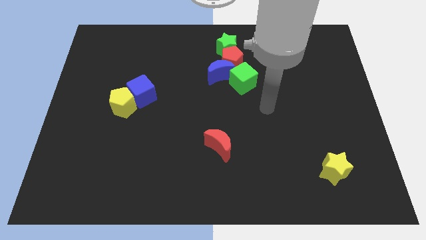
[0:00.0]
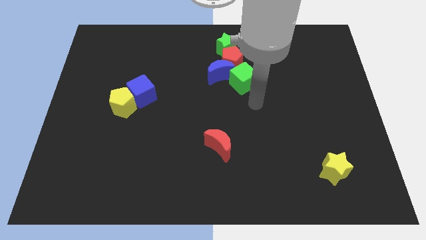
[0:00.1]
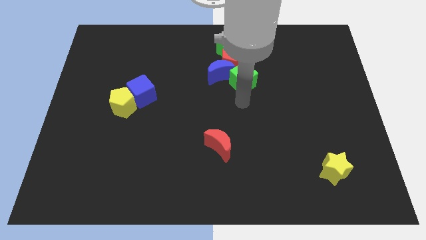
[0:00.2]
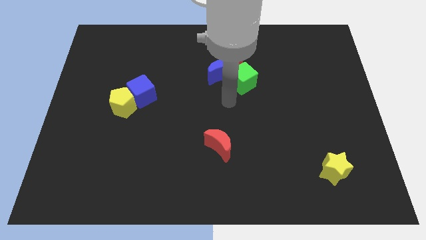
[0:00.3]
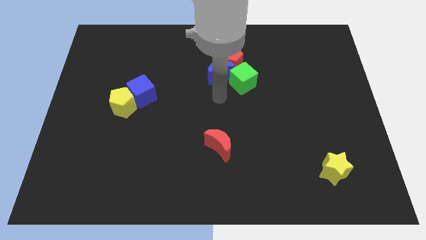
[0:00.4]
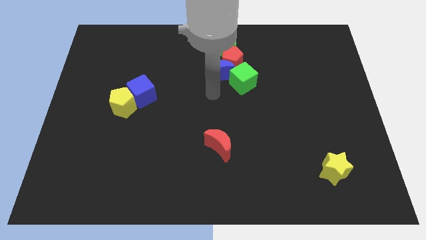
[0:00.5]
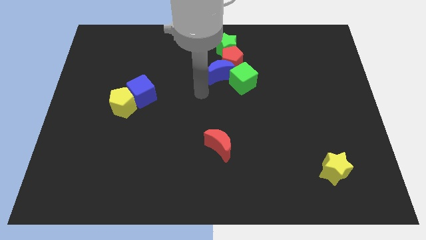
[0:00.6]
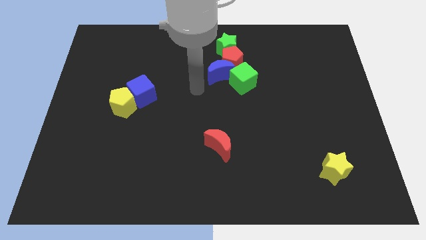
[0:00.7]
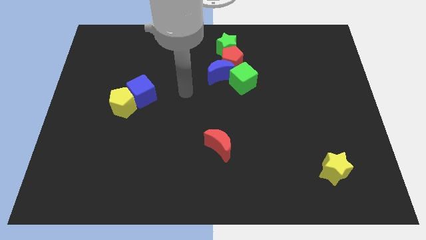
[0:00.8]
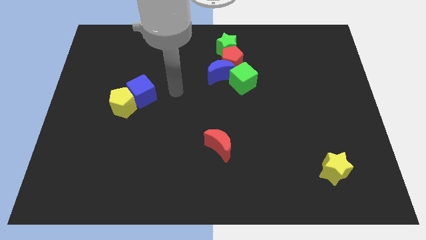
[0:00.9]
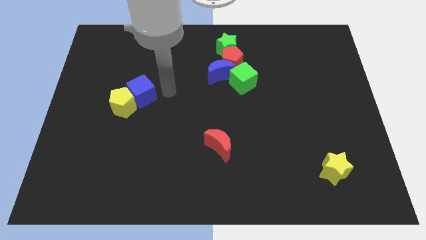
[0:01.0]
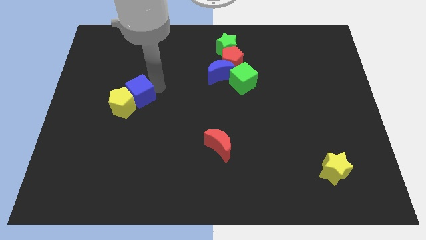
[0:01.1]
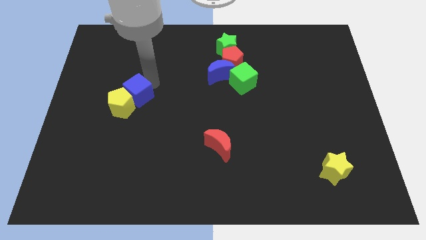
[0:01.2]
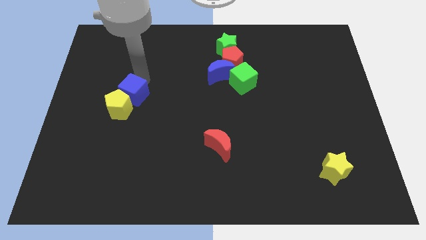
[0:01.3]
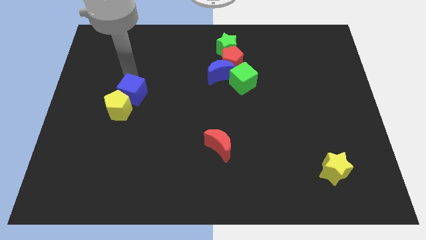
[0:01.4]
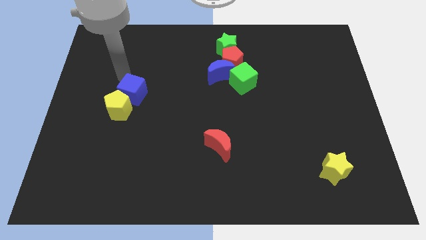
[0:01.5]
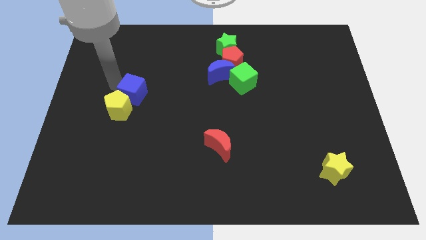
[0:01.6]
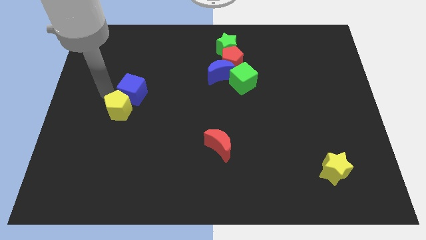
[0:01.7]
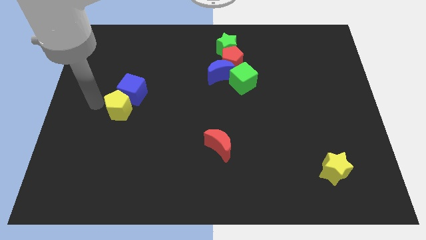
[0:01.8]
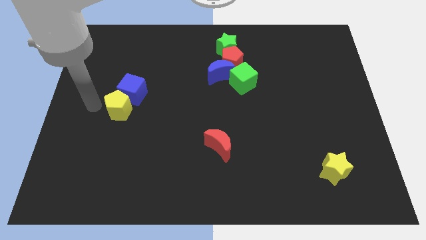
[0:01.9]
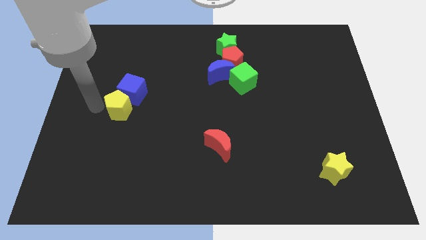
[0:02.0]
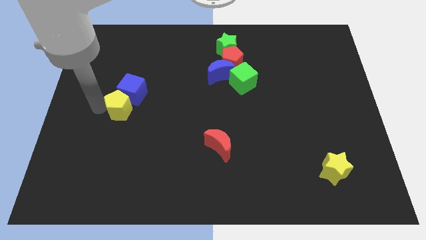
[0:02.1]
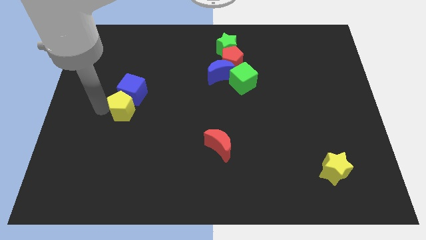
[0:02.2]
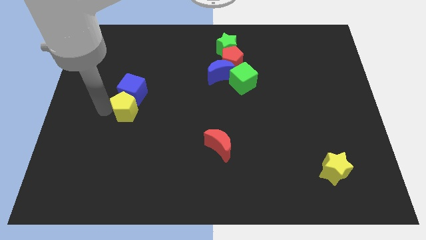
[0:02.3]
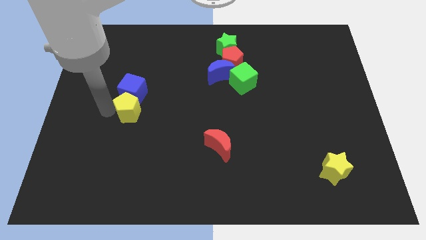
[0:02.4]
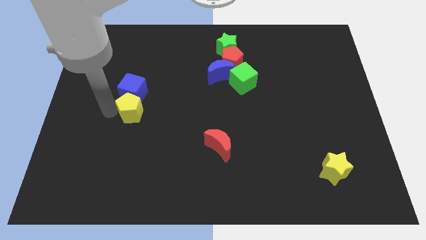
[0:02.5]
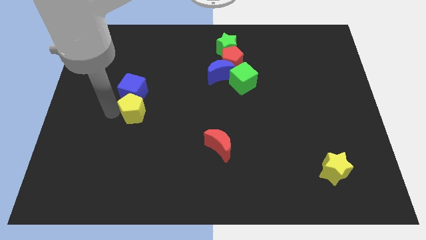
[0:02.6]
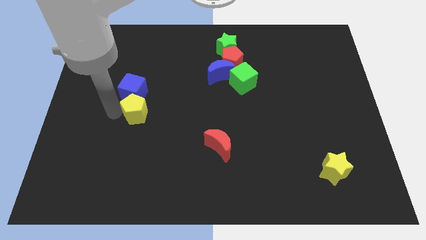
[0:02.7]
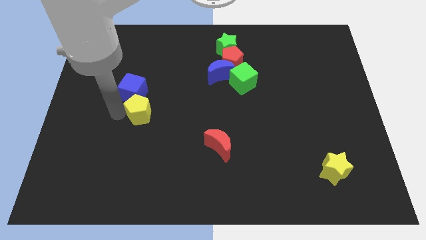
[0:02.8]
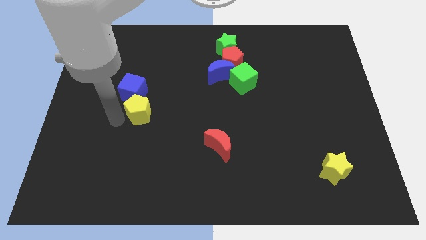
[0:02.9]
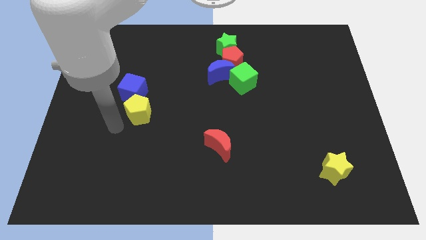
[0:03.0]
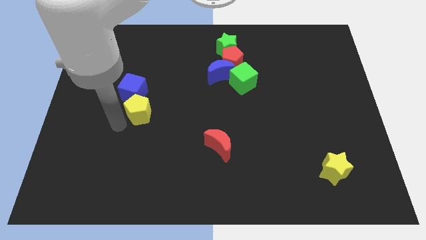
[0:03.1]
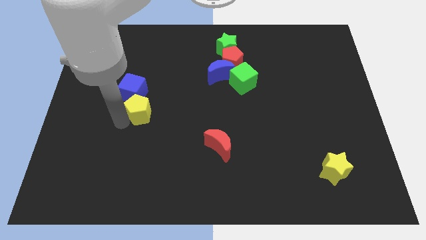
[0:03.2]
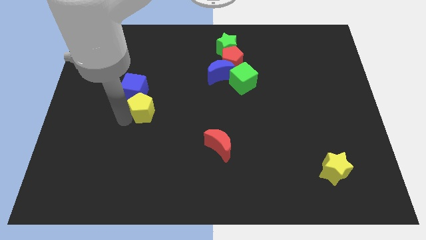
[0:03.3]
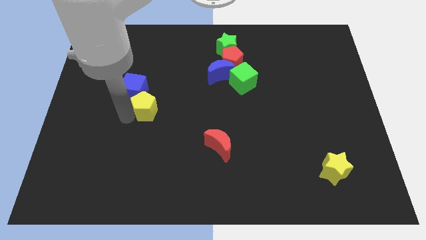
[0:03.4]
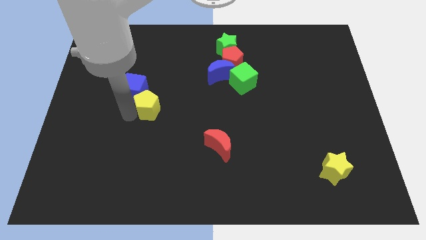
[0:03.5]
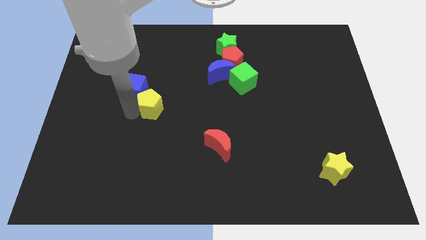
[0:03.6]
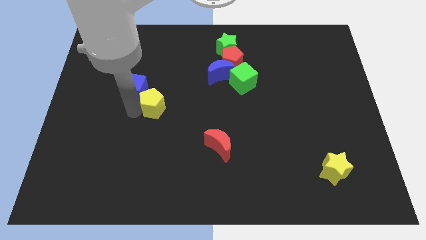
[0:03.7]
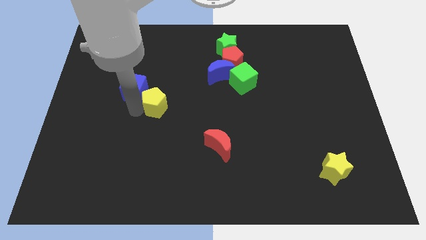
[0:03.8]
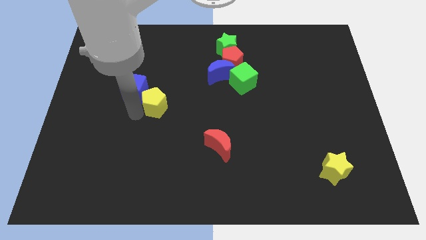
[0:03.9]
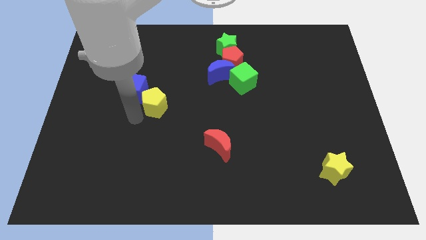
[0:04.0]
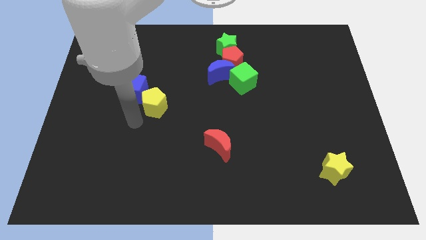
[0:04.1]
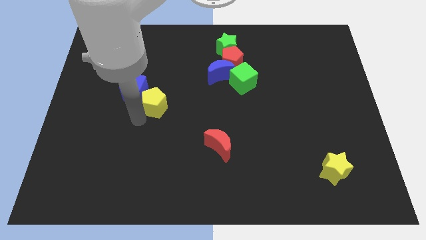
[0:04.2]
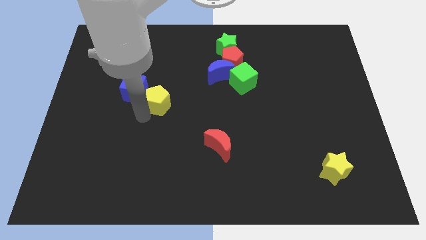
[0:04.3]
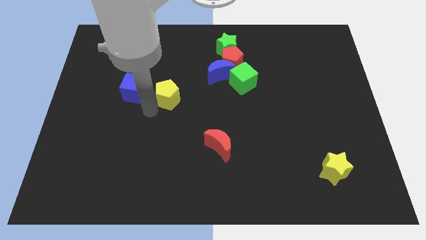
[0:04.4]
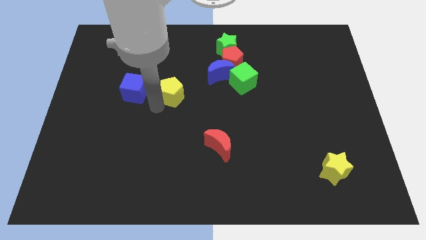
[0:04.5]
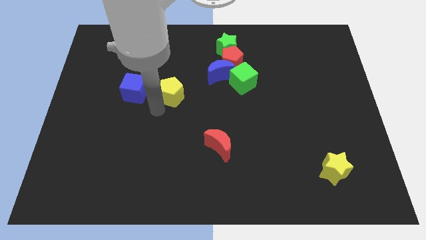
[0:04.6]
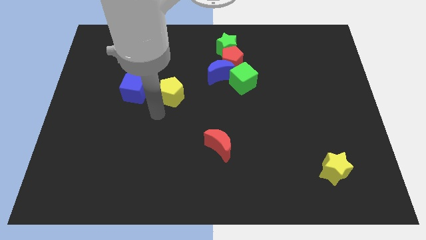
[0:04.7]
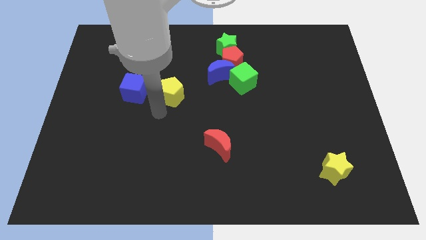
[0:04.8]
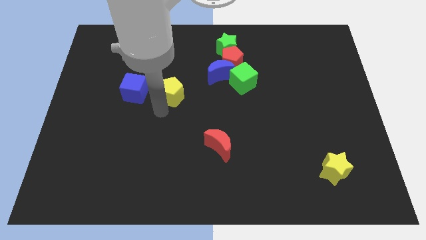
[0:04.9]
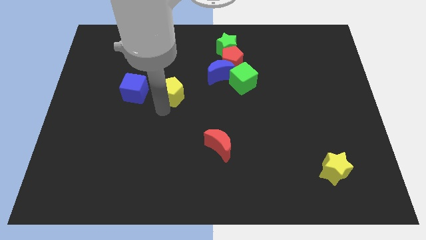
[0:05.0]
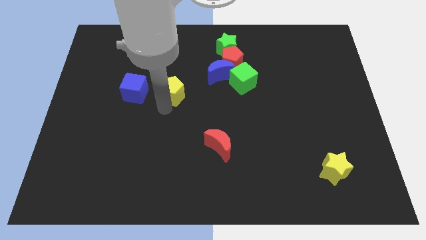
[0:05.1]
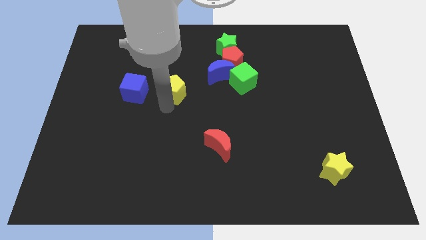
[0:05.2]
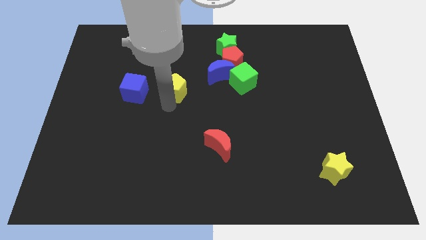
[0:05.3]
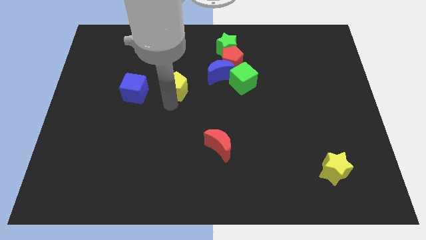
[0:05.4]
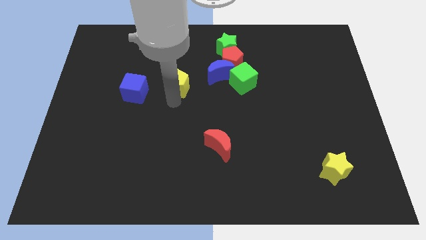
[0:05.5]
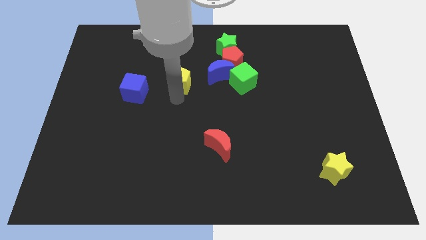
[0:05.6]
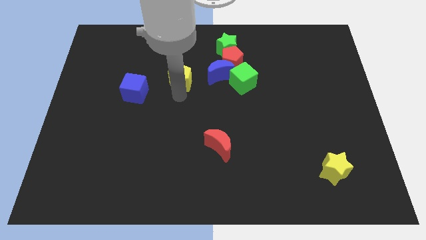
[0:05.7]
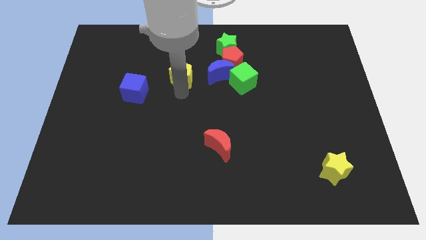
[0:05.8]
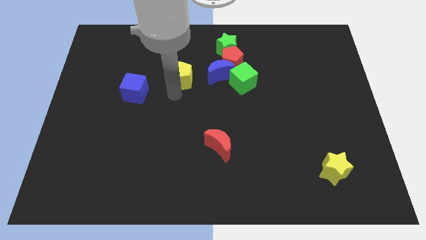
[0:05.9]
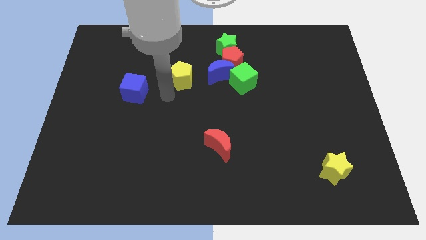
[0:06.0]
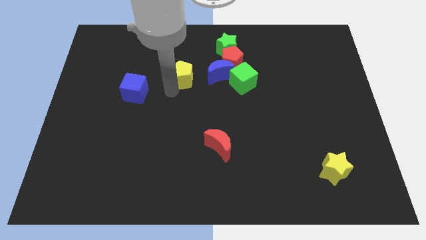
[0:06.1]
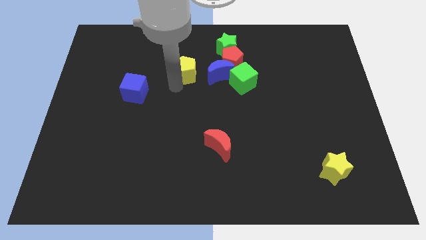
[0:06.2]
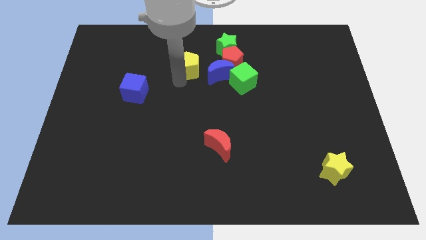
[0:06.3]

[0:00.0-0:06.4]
put the yellow pentagon to the top left of the blue moon

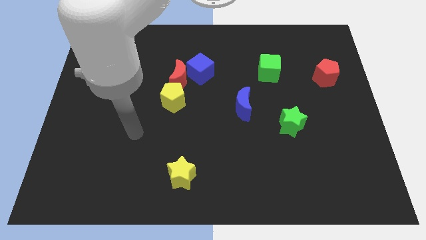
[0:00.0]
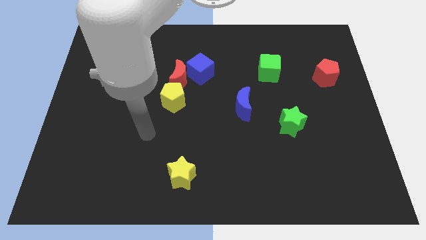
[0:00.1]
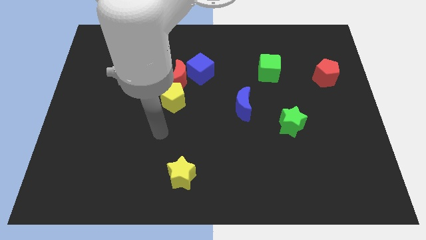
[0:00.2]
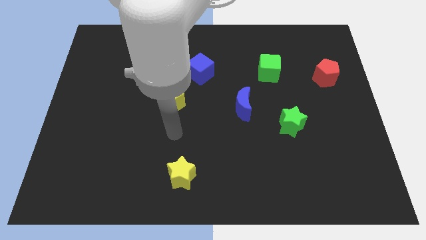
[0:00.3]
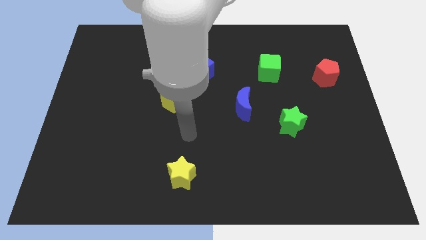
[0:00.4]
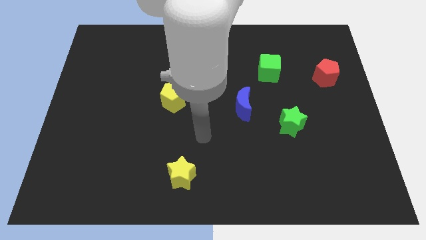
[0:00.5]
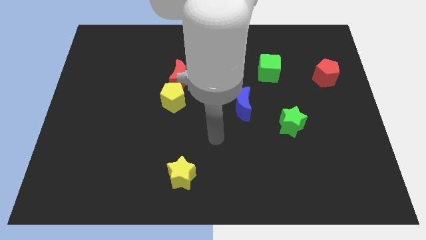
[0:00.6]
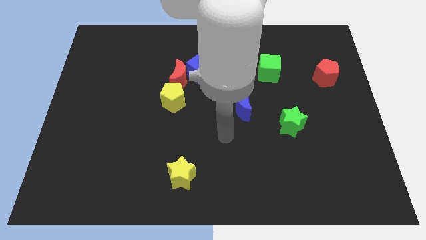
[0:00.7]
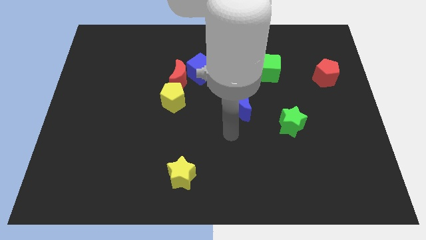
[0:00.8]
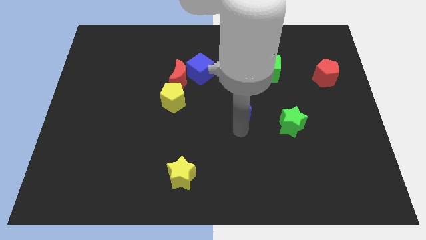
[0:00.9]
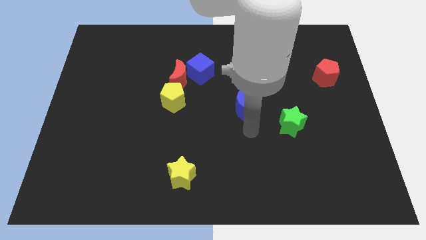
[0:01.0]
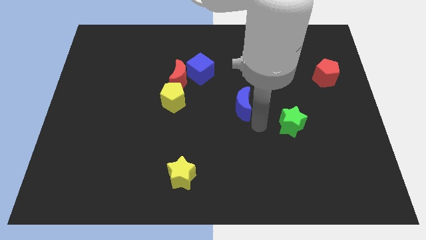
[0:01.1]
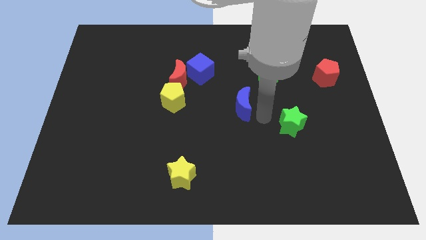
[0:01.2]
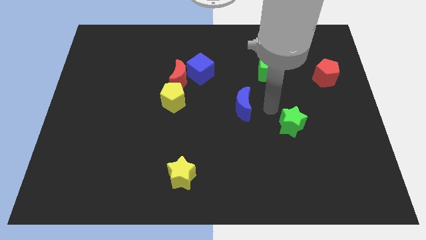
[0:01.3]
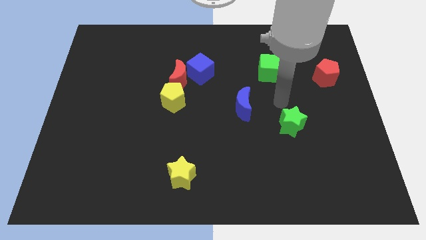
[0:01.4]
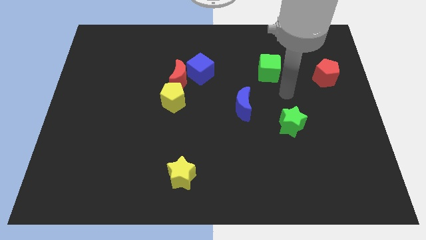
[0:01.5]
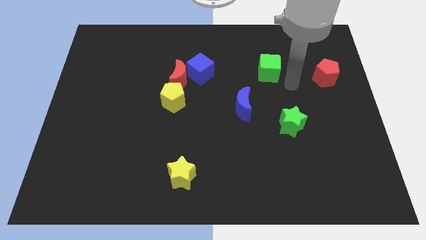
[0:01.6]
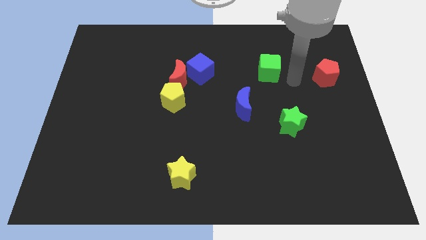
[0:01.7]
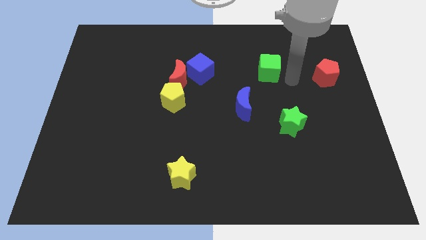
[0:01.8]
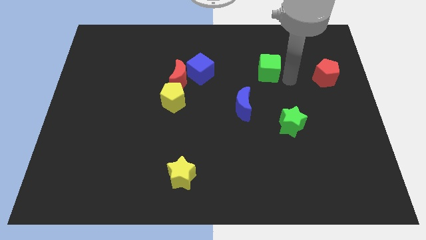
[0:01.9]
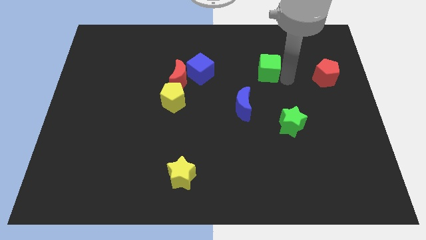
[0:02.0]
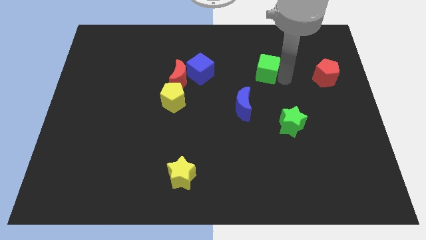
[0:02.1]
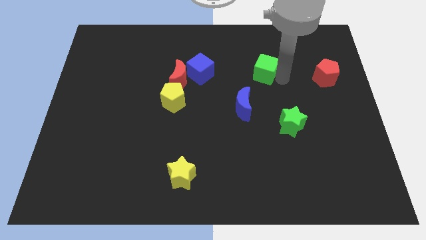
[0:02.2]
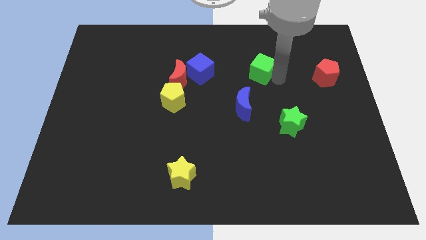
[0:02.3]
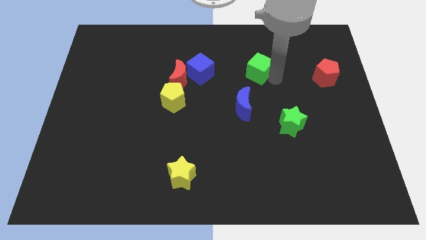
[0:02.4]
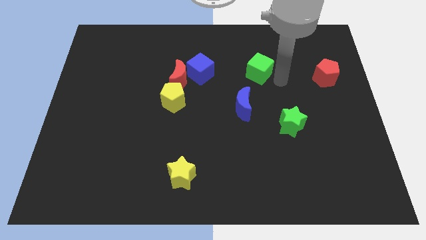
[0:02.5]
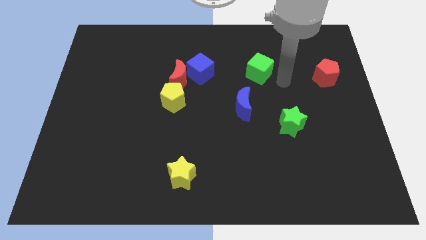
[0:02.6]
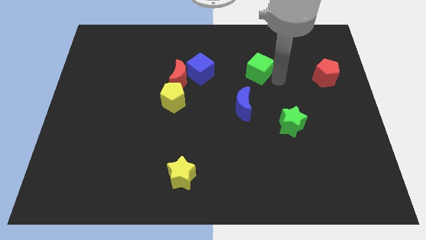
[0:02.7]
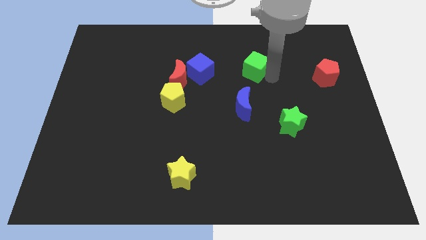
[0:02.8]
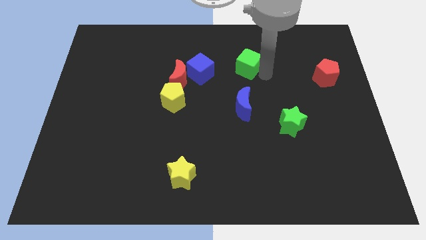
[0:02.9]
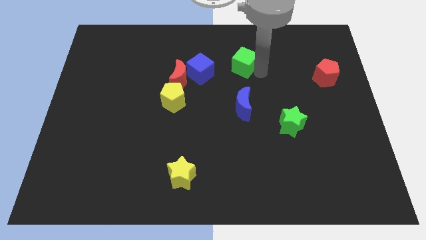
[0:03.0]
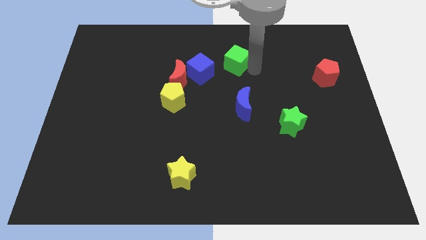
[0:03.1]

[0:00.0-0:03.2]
put the green cube to the top right of the blue cube
